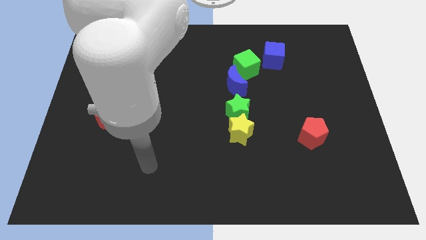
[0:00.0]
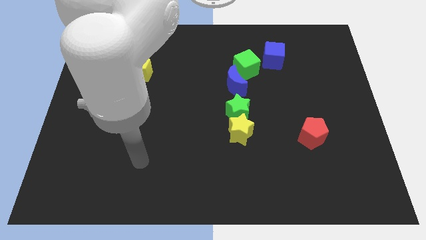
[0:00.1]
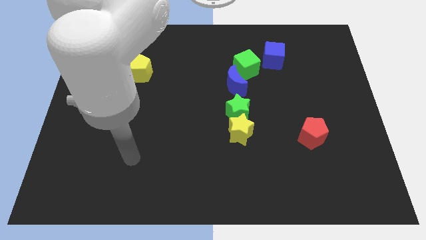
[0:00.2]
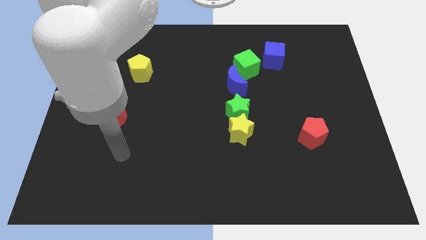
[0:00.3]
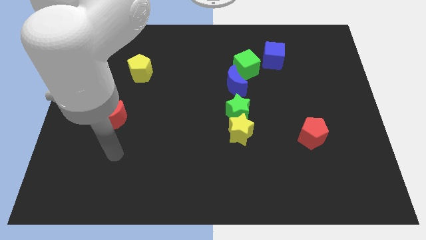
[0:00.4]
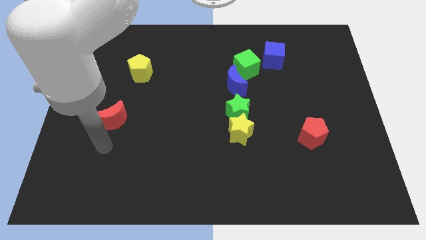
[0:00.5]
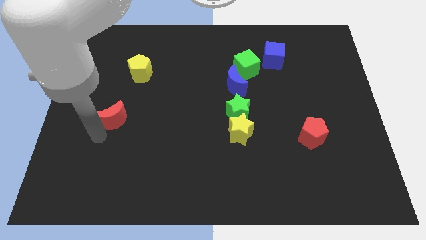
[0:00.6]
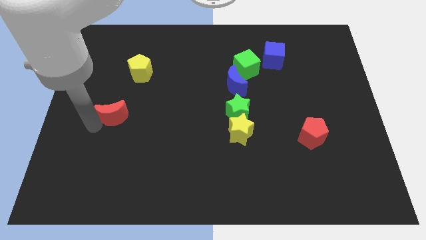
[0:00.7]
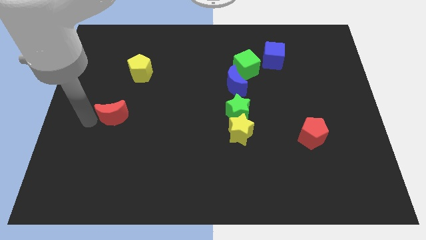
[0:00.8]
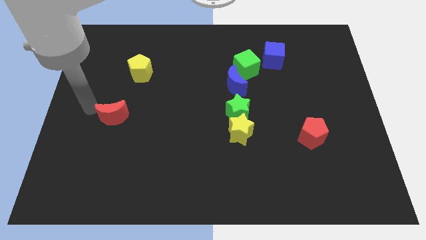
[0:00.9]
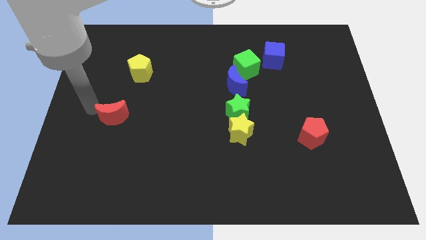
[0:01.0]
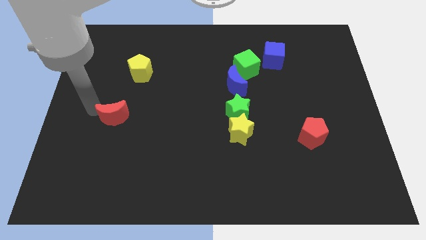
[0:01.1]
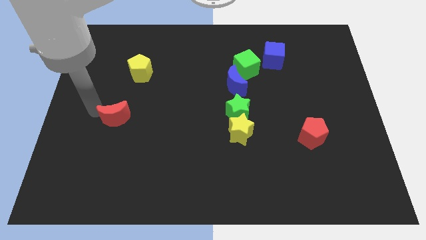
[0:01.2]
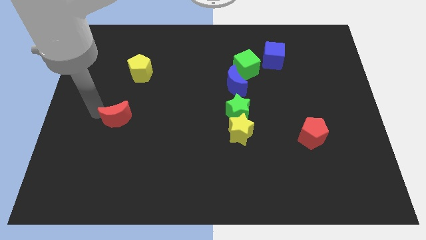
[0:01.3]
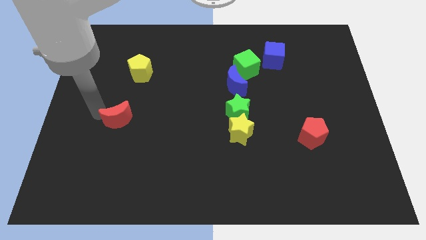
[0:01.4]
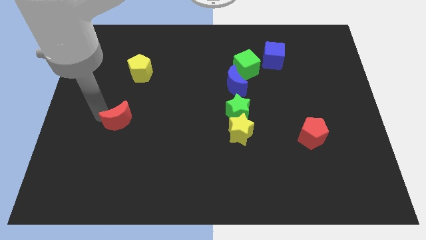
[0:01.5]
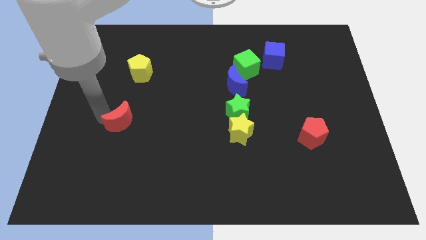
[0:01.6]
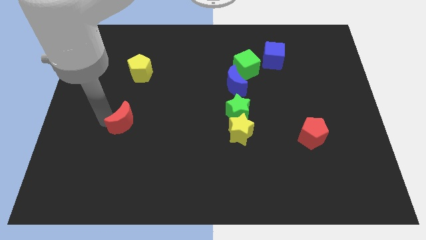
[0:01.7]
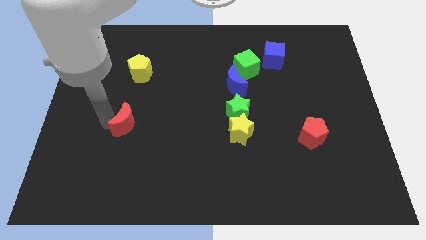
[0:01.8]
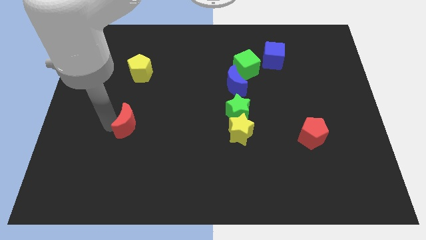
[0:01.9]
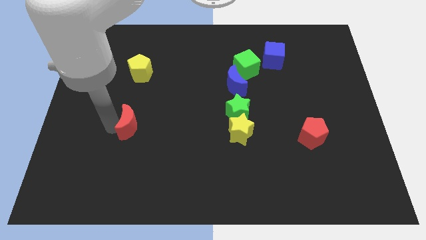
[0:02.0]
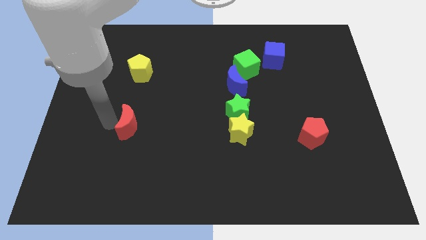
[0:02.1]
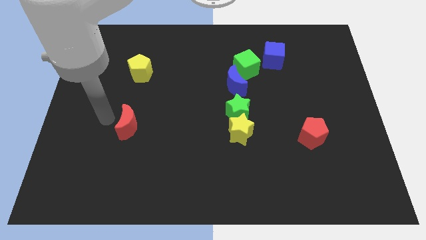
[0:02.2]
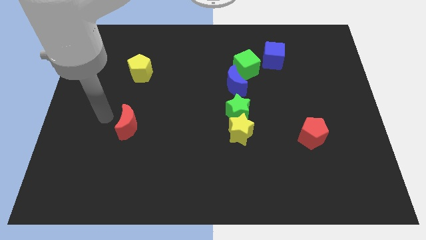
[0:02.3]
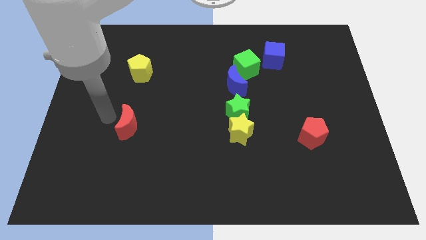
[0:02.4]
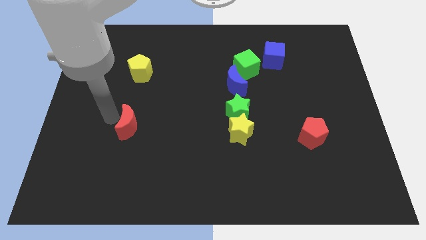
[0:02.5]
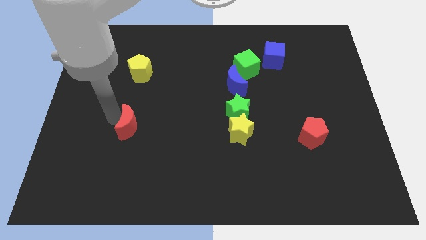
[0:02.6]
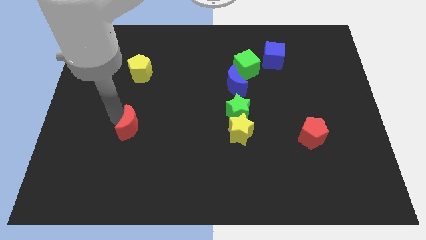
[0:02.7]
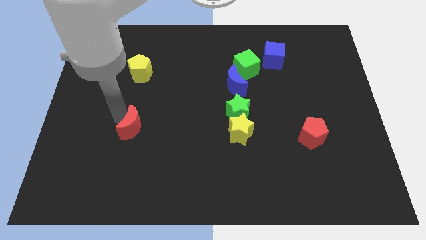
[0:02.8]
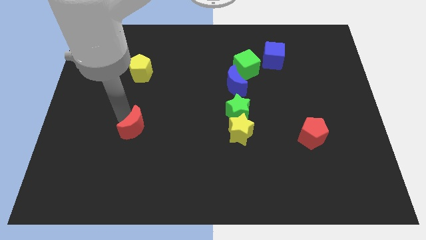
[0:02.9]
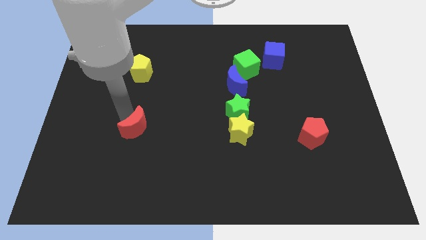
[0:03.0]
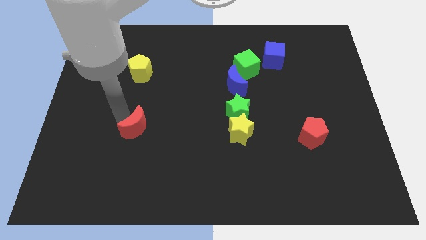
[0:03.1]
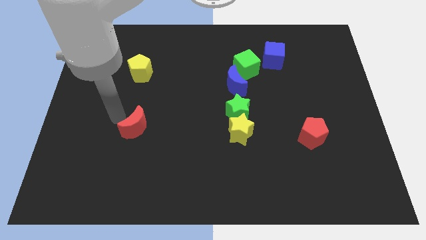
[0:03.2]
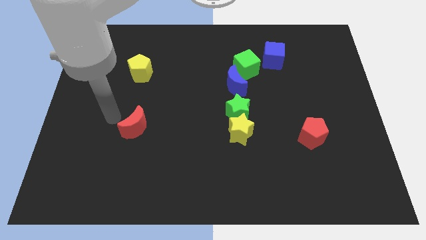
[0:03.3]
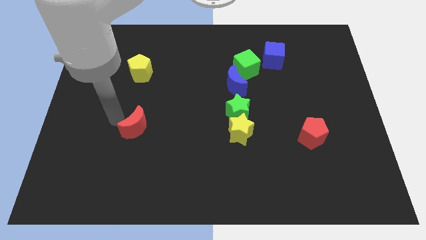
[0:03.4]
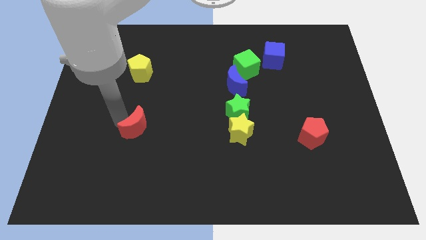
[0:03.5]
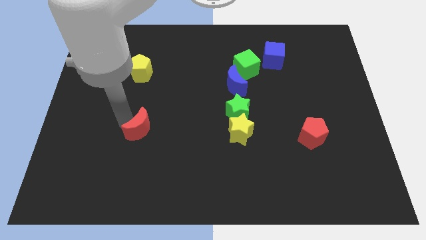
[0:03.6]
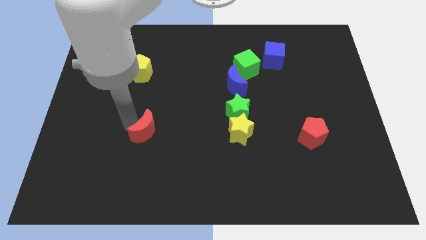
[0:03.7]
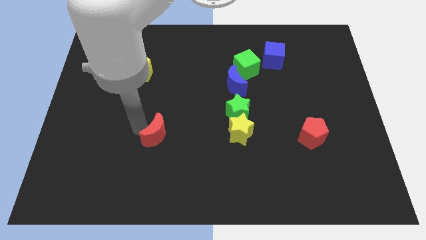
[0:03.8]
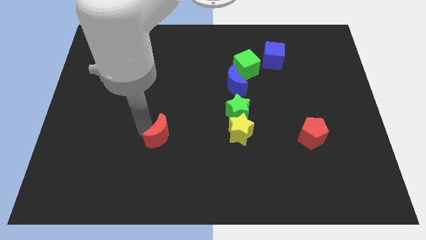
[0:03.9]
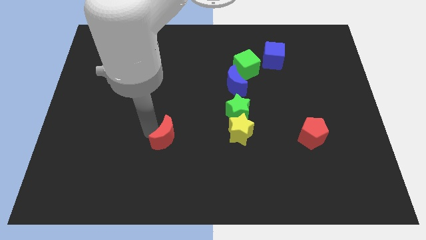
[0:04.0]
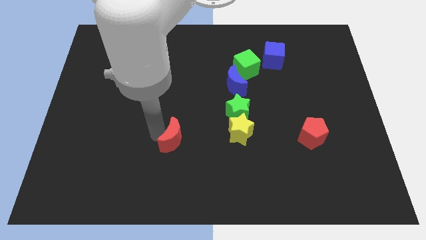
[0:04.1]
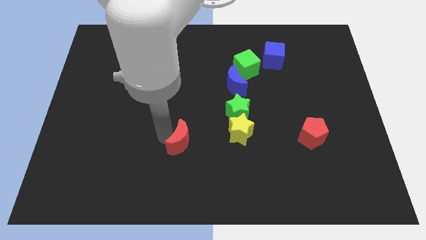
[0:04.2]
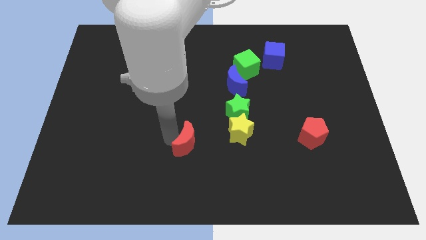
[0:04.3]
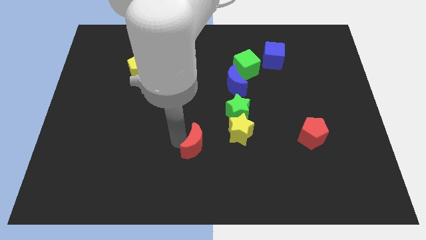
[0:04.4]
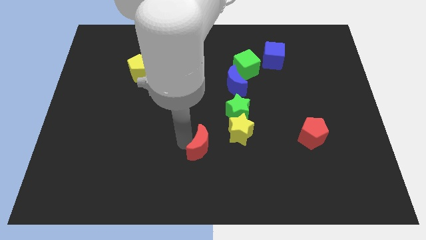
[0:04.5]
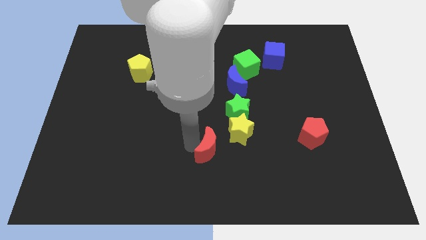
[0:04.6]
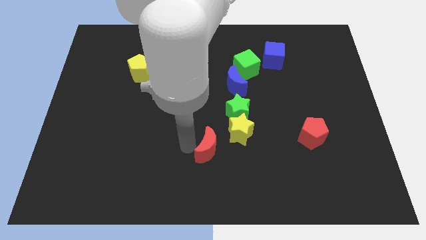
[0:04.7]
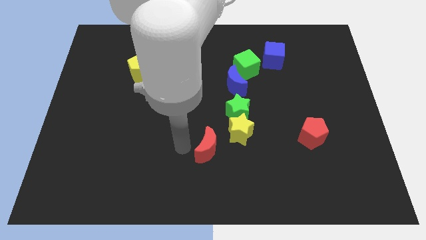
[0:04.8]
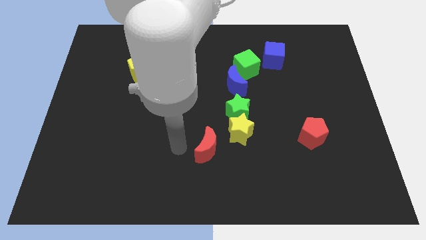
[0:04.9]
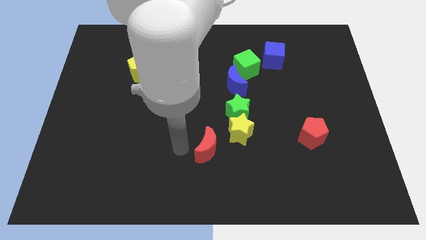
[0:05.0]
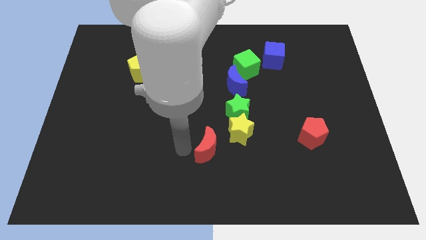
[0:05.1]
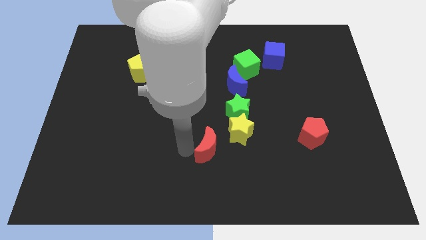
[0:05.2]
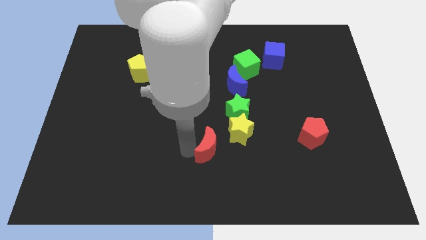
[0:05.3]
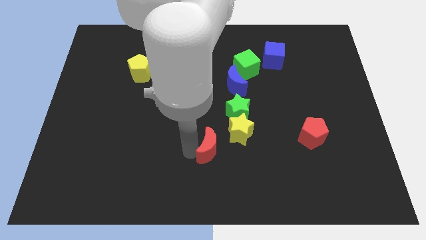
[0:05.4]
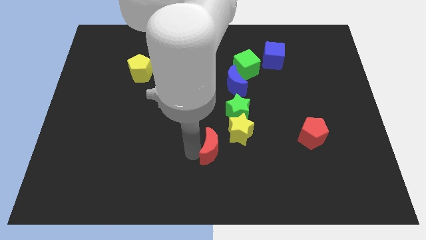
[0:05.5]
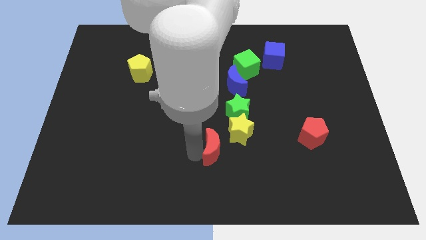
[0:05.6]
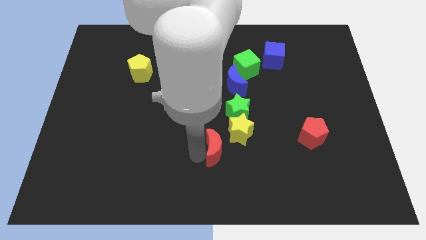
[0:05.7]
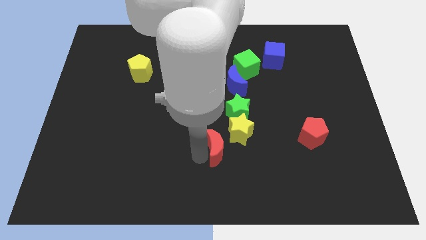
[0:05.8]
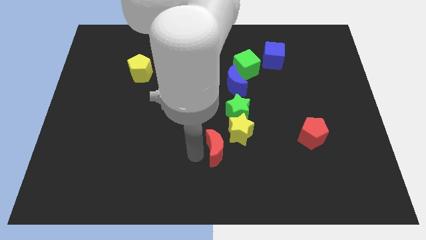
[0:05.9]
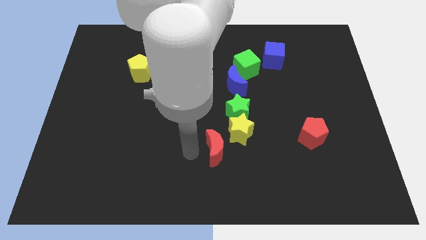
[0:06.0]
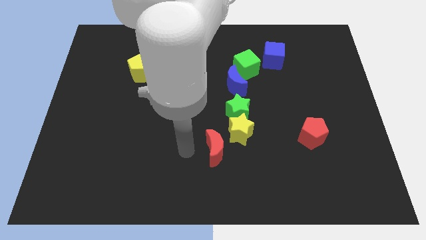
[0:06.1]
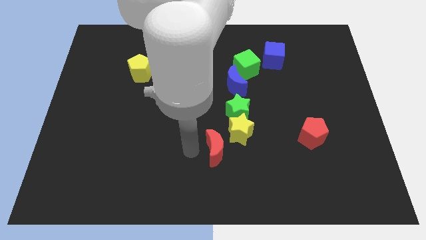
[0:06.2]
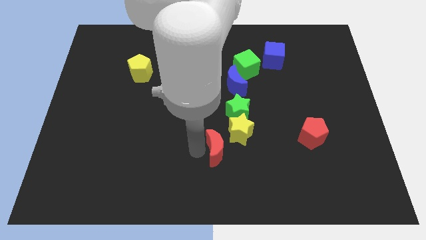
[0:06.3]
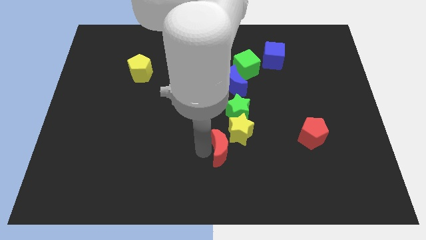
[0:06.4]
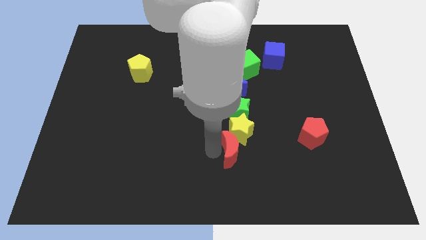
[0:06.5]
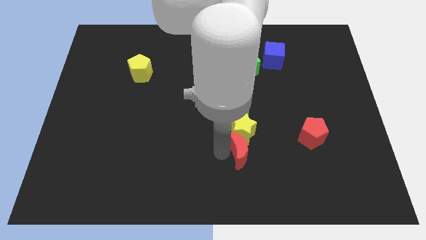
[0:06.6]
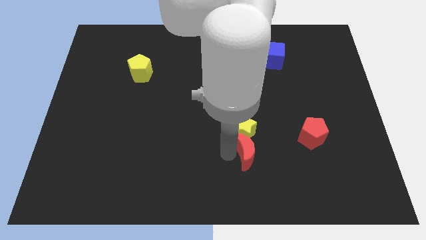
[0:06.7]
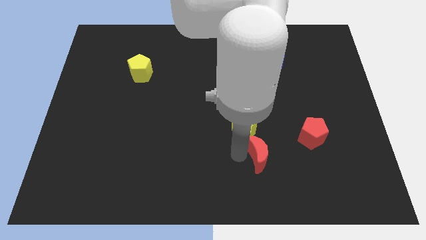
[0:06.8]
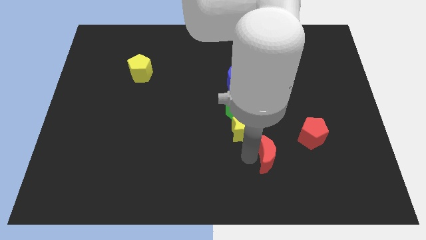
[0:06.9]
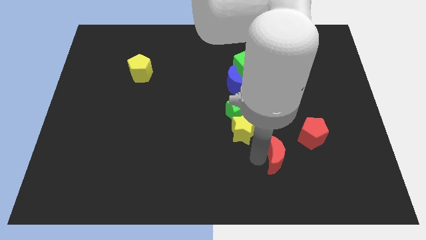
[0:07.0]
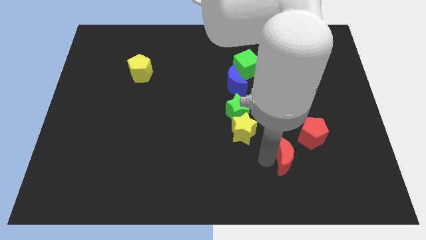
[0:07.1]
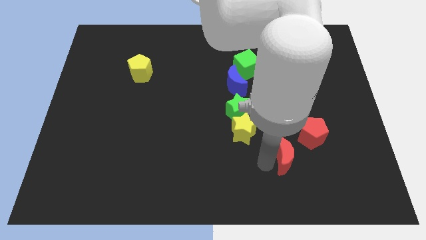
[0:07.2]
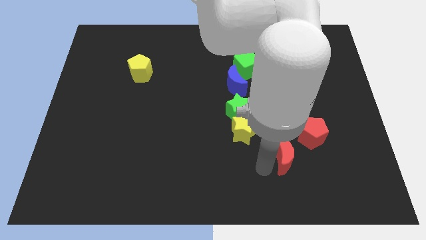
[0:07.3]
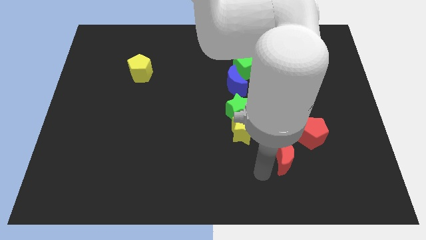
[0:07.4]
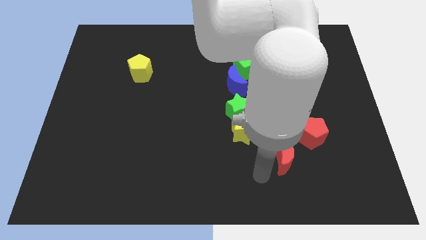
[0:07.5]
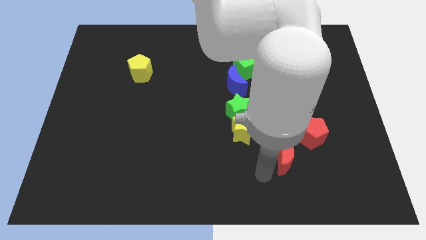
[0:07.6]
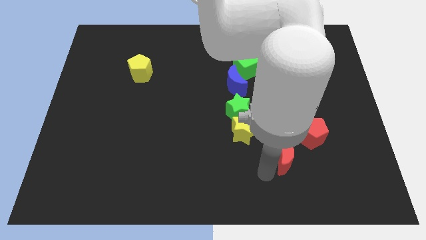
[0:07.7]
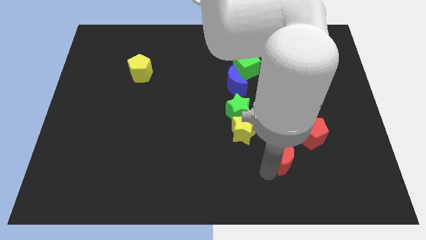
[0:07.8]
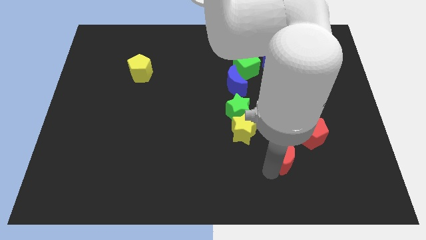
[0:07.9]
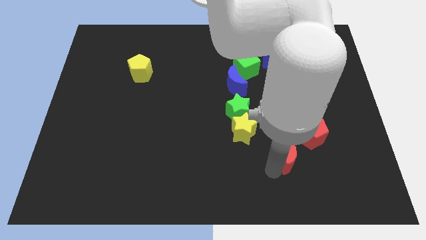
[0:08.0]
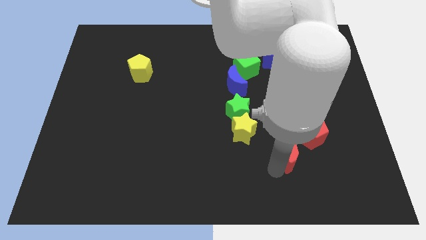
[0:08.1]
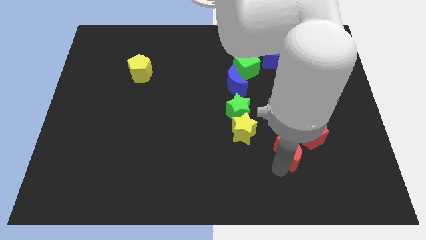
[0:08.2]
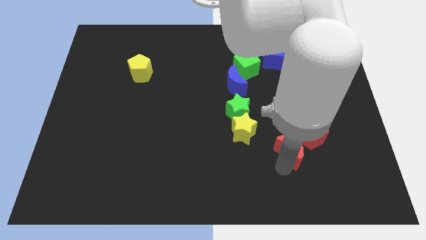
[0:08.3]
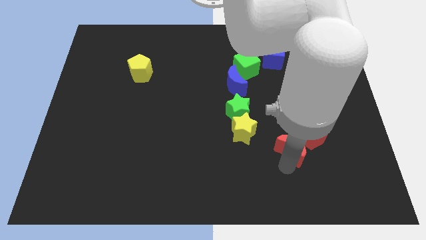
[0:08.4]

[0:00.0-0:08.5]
slide the red moon close to the red pentagon
